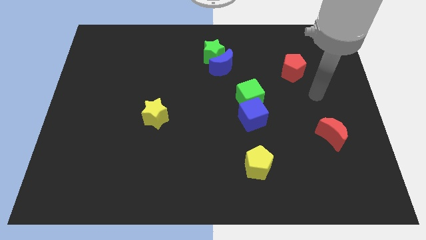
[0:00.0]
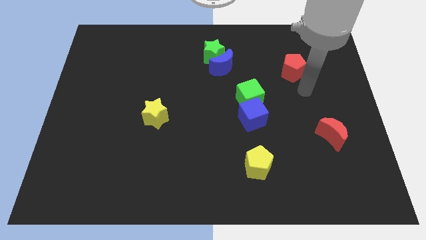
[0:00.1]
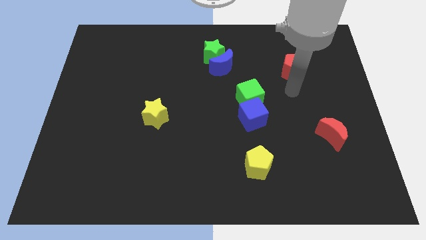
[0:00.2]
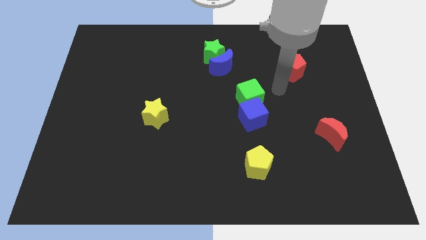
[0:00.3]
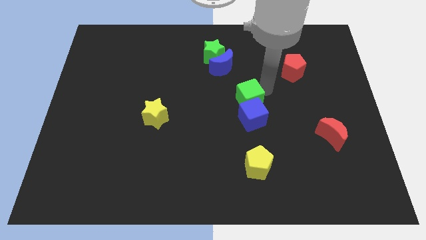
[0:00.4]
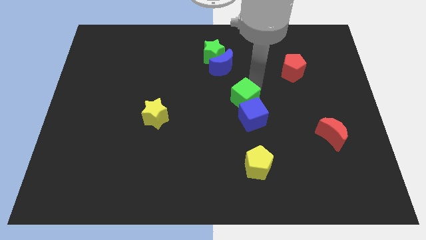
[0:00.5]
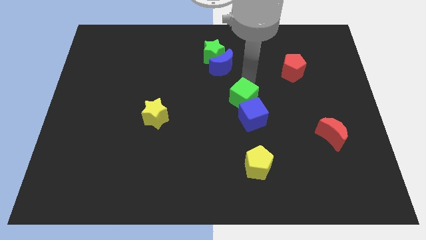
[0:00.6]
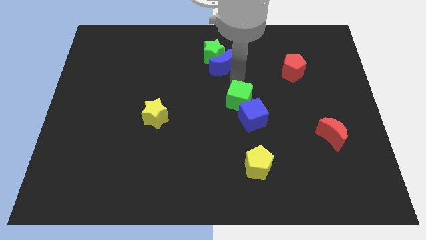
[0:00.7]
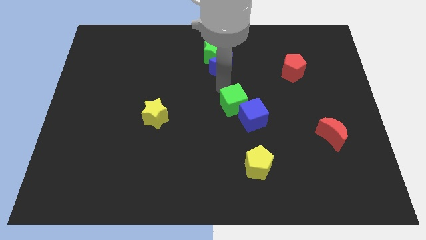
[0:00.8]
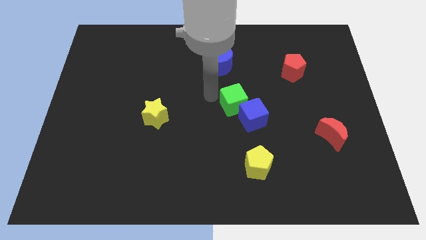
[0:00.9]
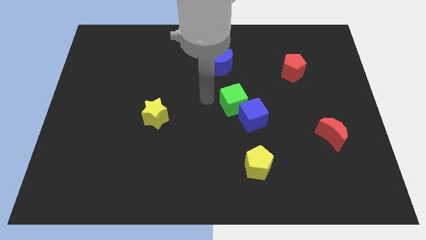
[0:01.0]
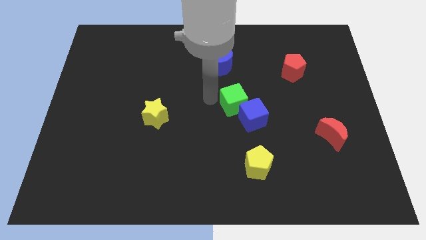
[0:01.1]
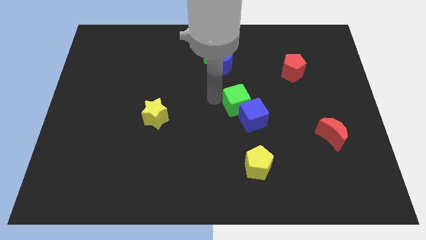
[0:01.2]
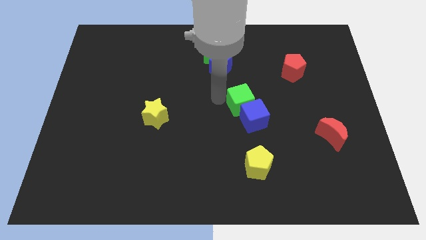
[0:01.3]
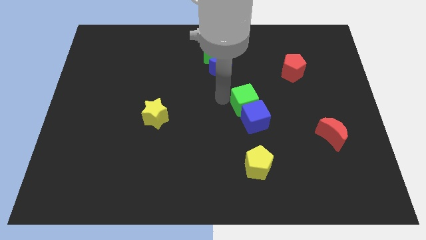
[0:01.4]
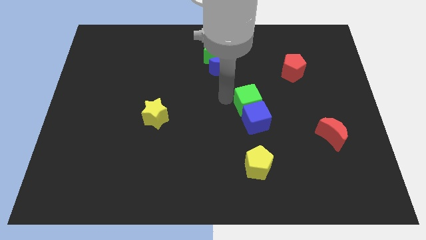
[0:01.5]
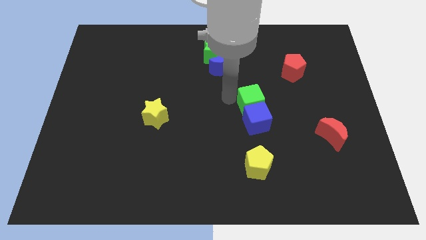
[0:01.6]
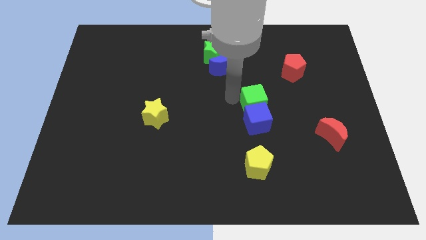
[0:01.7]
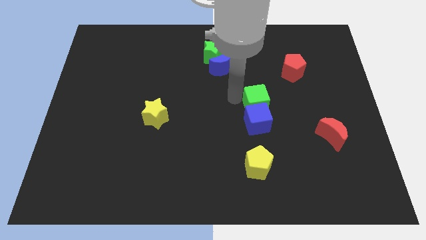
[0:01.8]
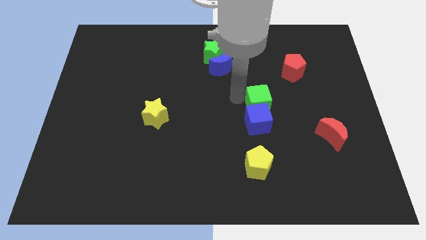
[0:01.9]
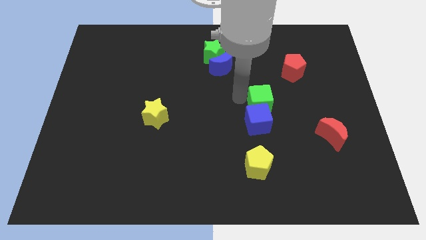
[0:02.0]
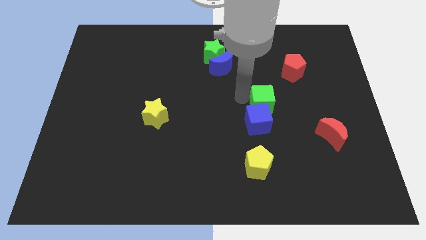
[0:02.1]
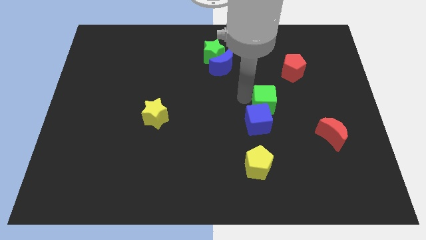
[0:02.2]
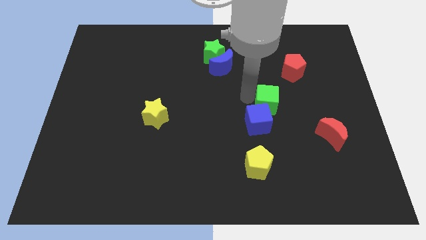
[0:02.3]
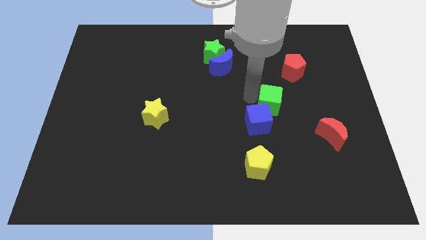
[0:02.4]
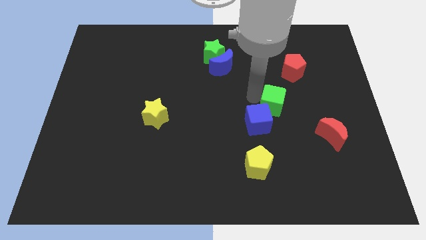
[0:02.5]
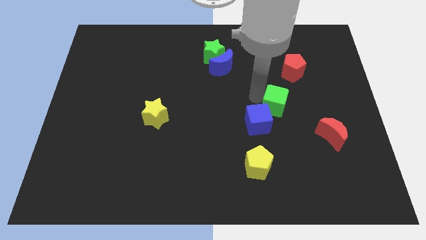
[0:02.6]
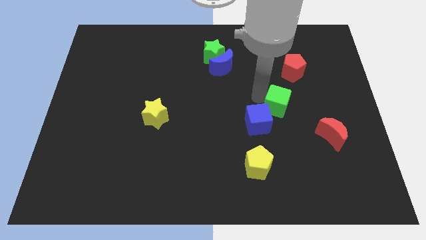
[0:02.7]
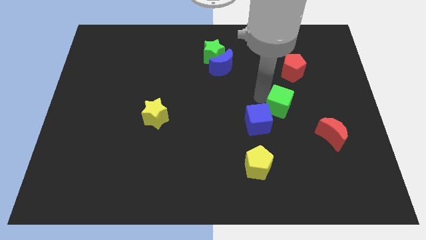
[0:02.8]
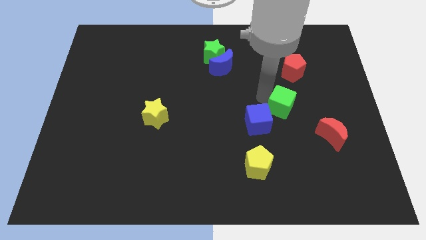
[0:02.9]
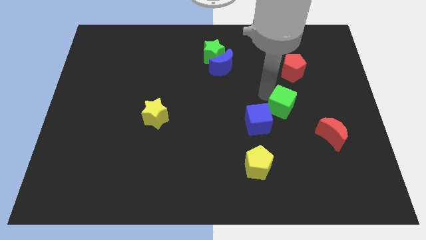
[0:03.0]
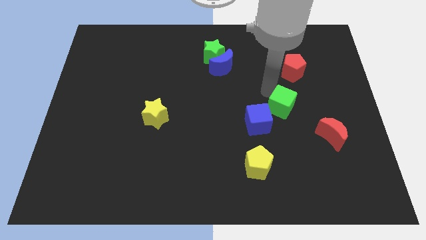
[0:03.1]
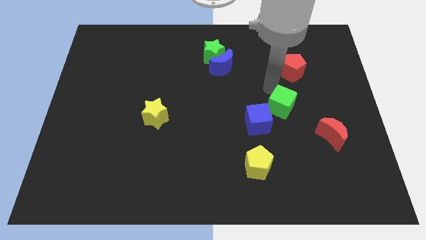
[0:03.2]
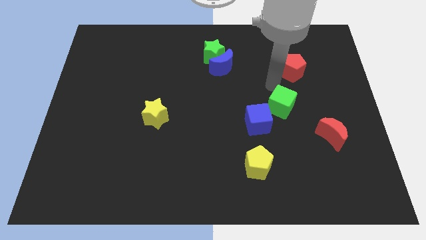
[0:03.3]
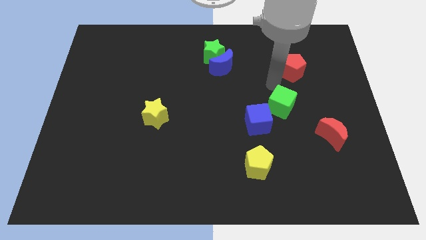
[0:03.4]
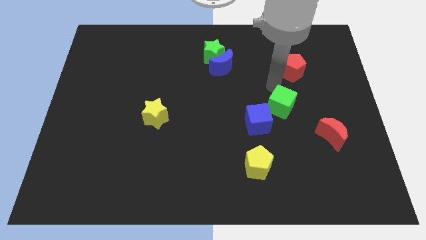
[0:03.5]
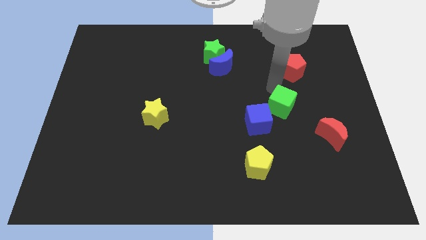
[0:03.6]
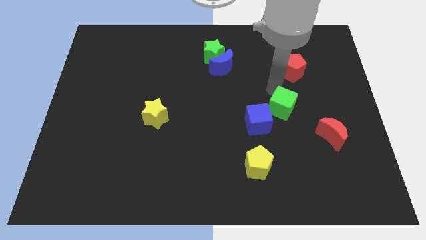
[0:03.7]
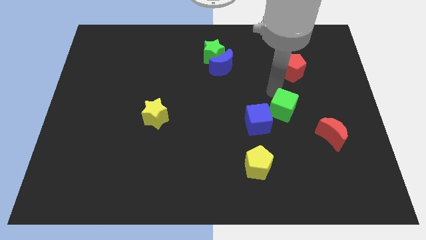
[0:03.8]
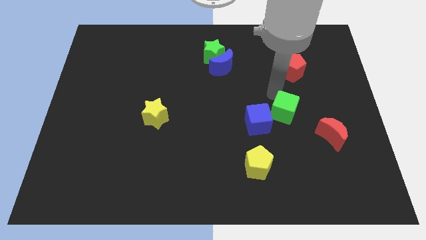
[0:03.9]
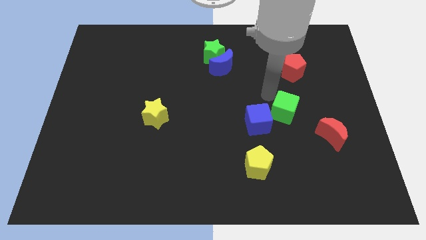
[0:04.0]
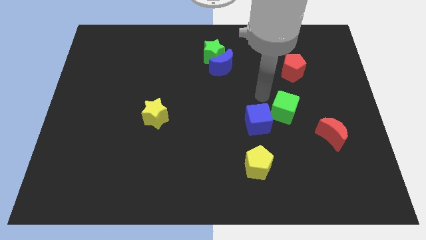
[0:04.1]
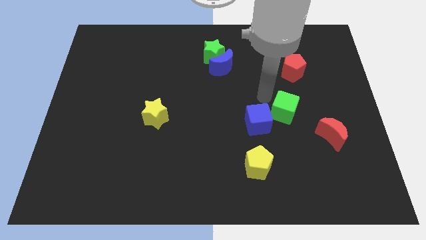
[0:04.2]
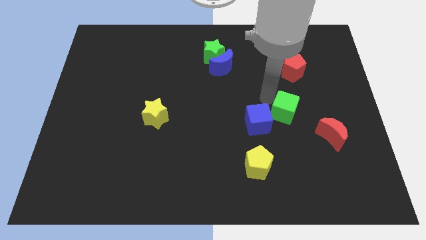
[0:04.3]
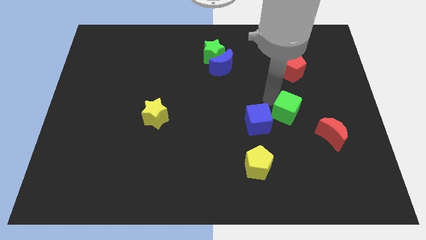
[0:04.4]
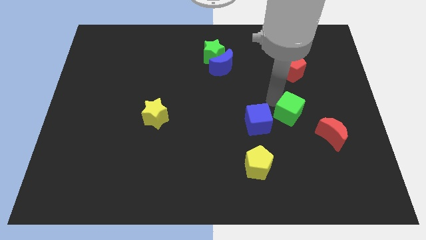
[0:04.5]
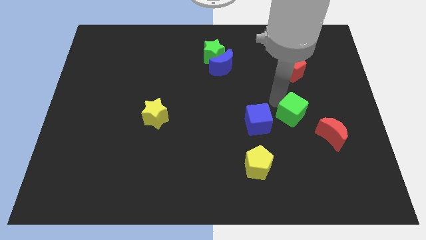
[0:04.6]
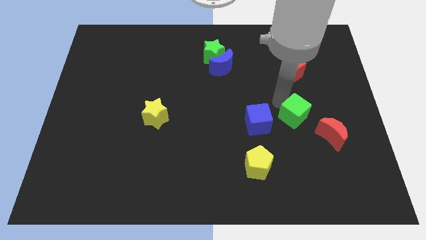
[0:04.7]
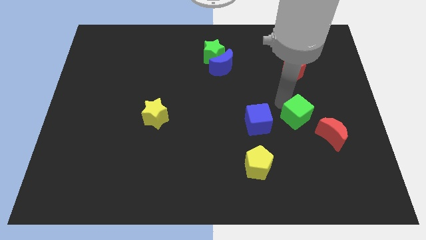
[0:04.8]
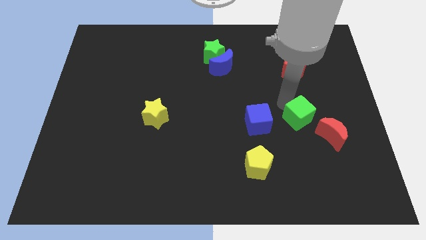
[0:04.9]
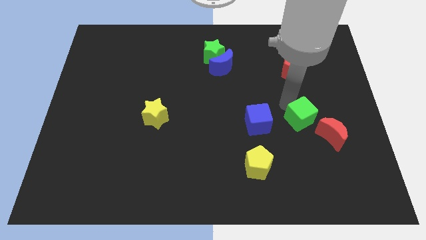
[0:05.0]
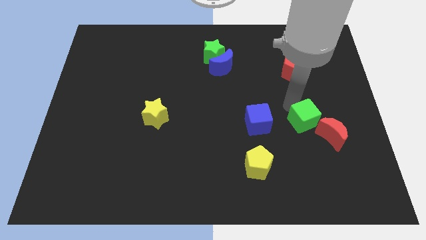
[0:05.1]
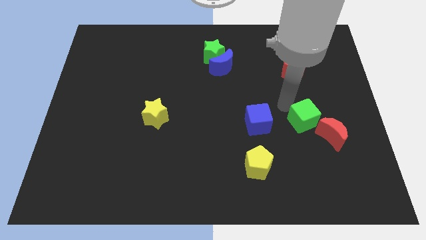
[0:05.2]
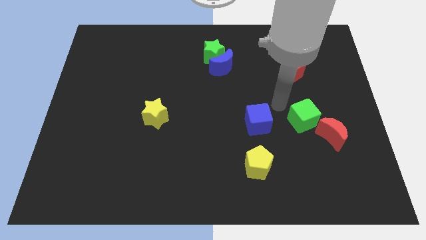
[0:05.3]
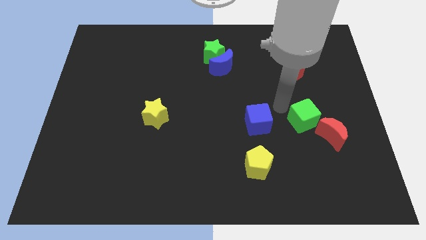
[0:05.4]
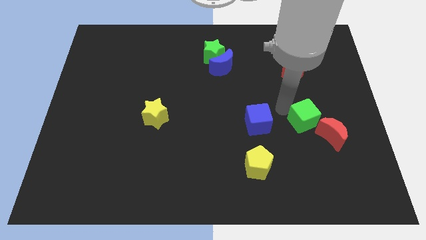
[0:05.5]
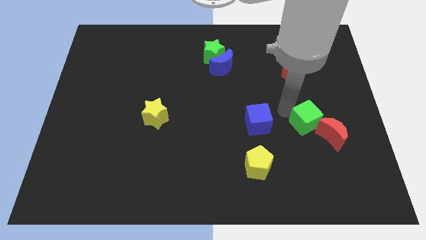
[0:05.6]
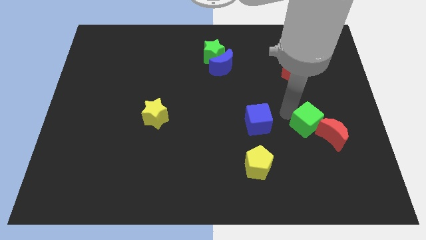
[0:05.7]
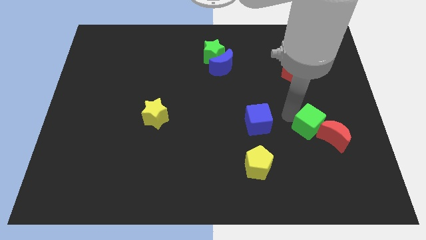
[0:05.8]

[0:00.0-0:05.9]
slide the green cube next to the red moon

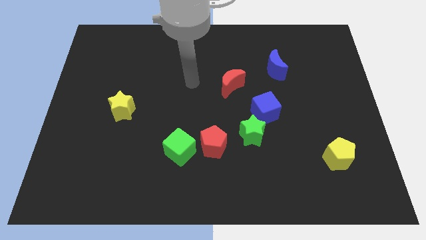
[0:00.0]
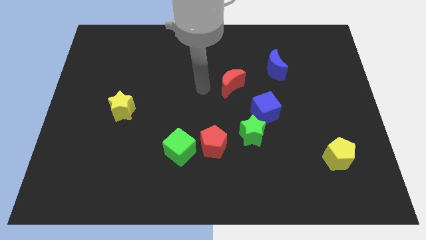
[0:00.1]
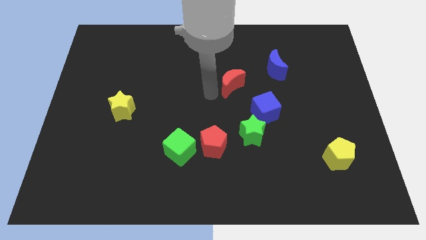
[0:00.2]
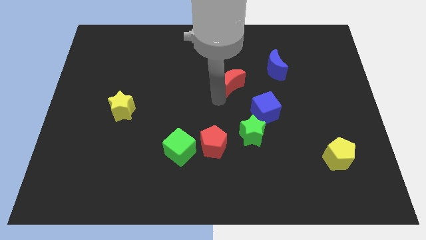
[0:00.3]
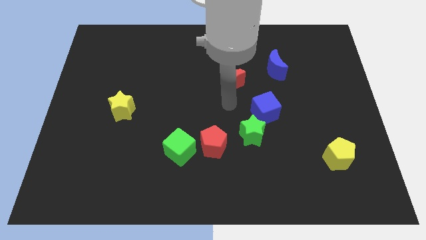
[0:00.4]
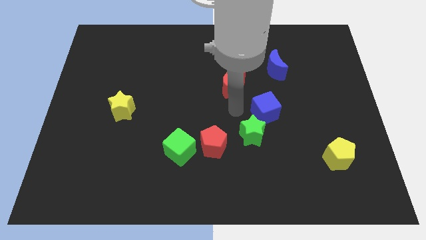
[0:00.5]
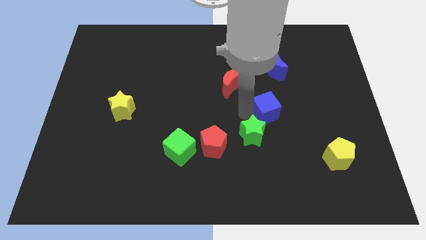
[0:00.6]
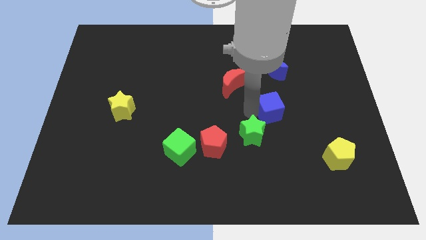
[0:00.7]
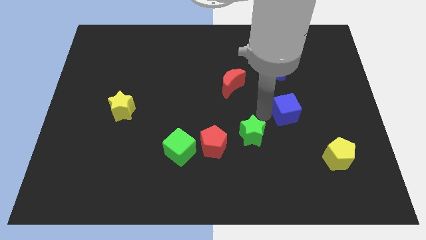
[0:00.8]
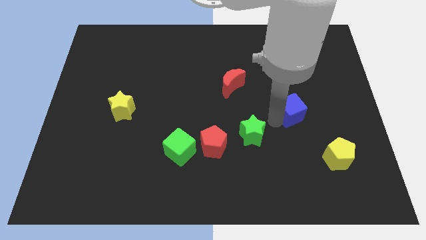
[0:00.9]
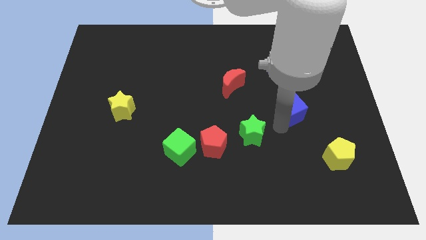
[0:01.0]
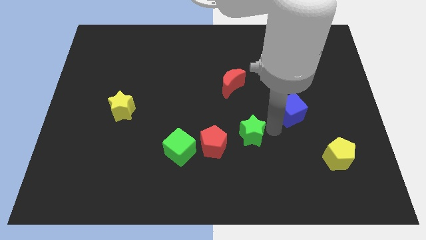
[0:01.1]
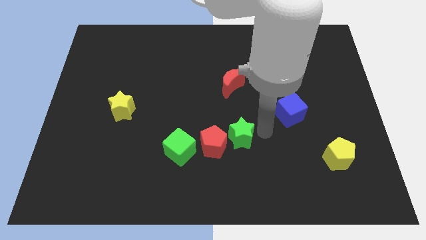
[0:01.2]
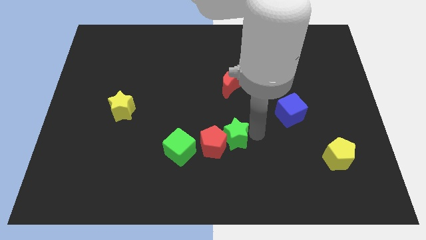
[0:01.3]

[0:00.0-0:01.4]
move the green star to the red pentagon
